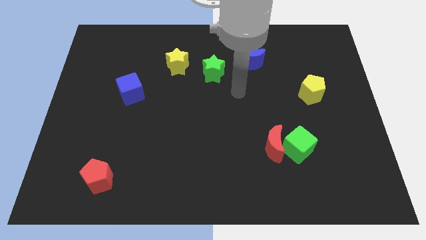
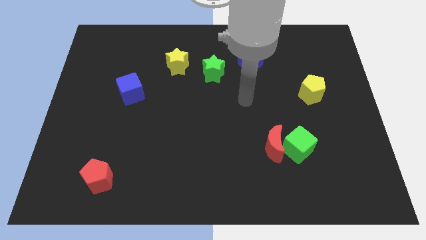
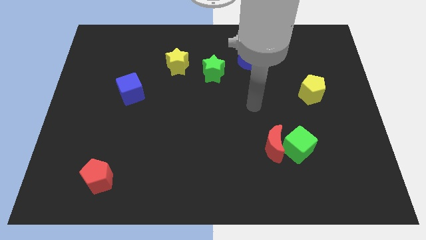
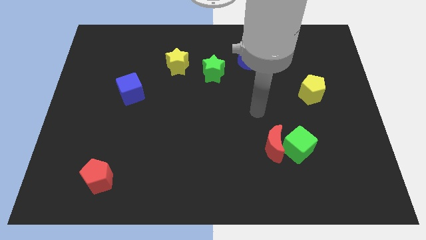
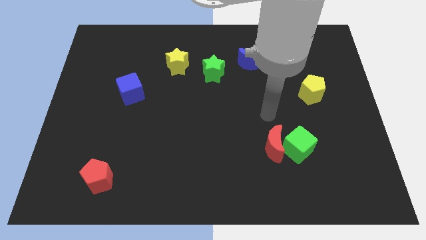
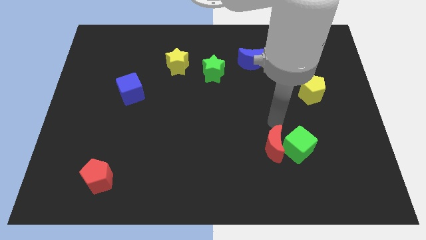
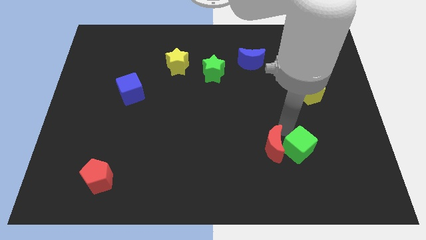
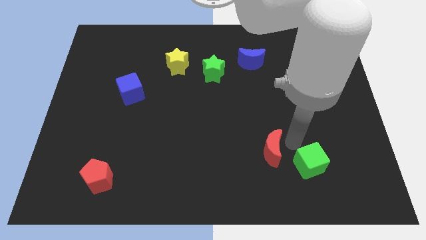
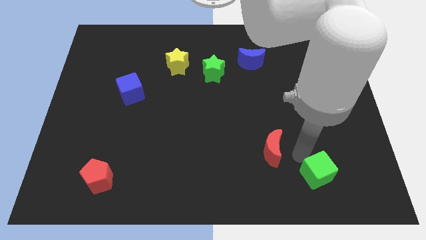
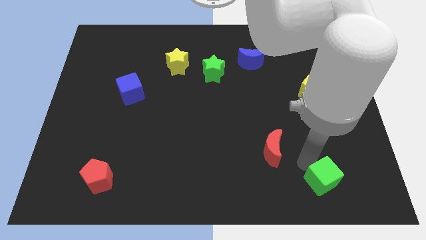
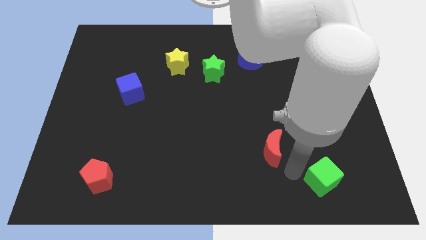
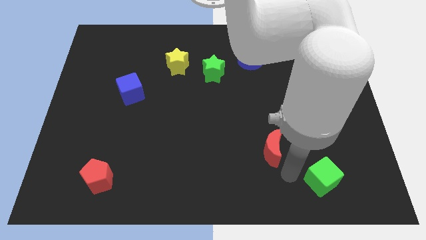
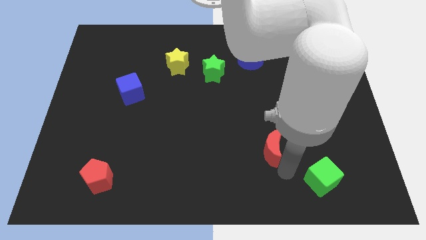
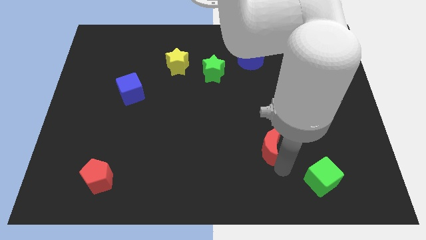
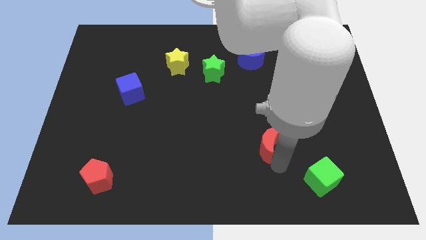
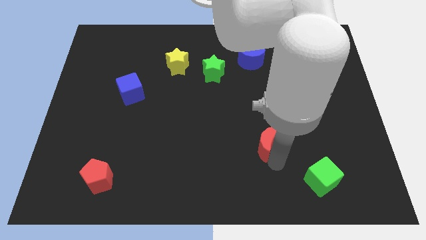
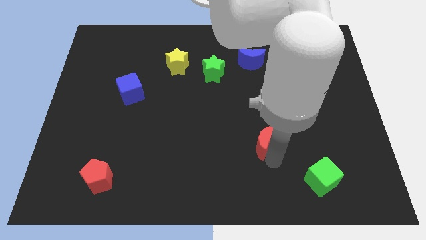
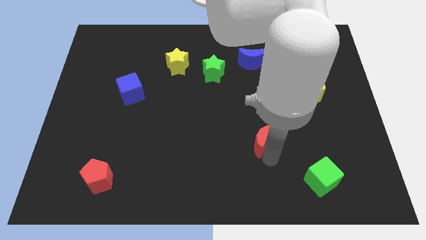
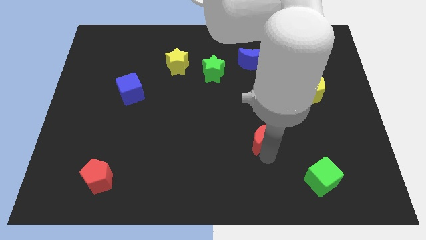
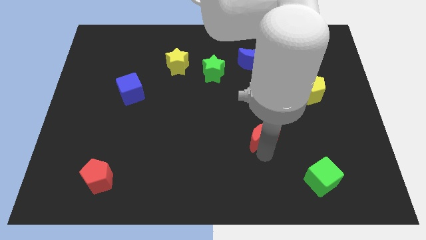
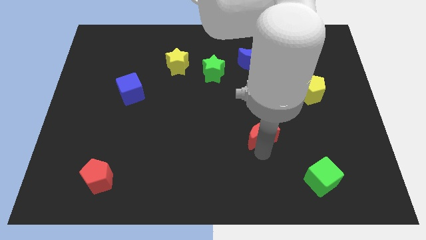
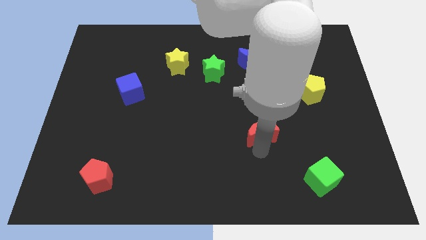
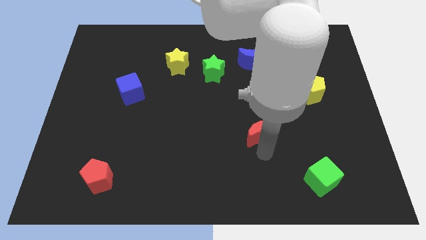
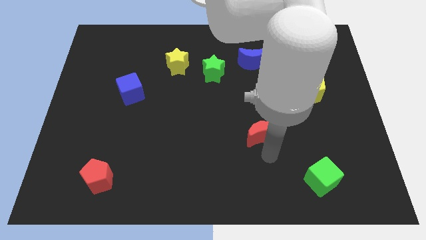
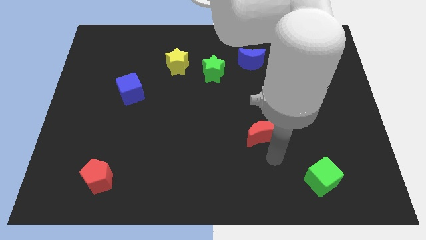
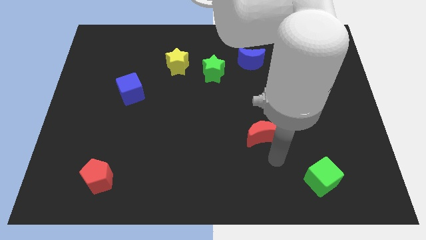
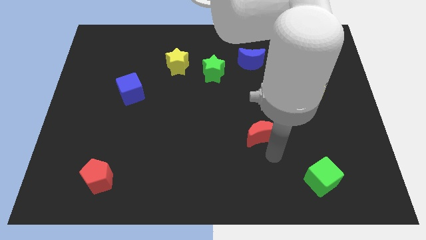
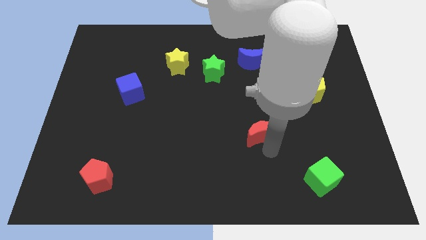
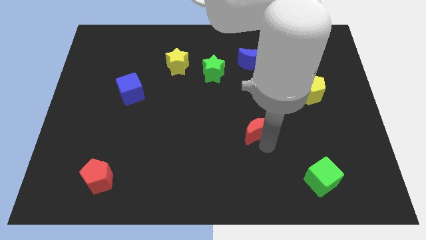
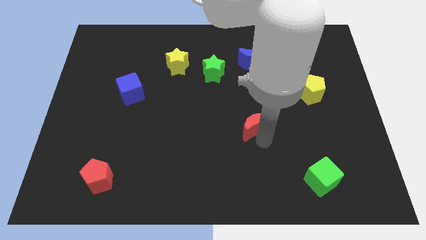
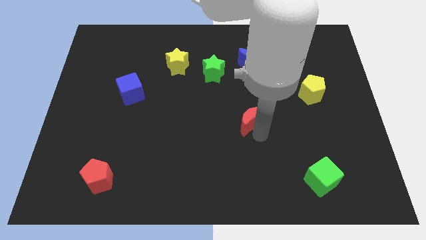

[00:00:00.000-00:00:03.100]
push the red moon somewhat diagonally up and left

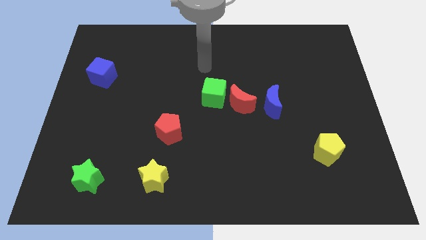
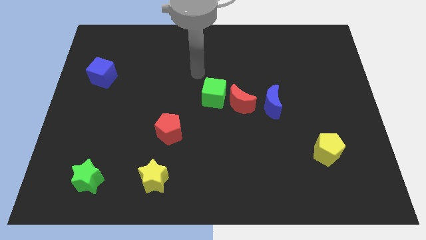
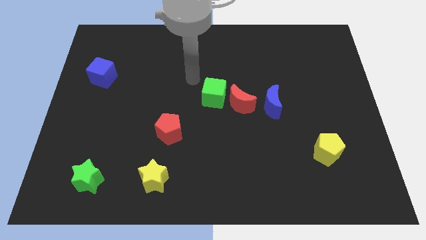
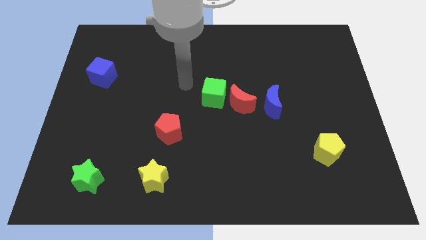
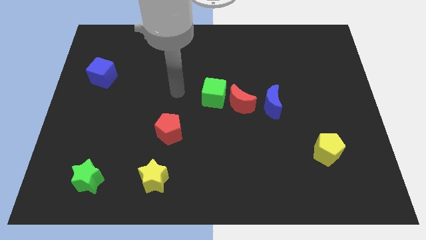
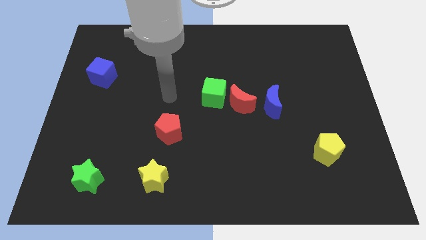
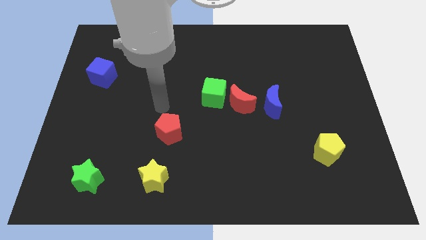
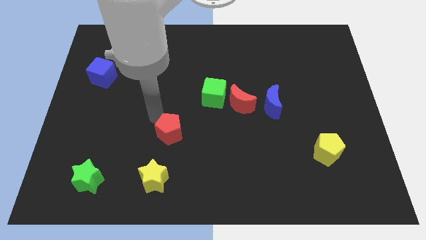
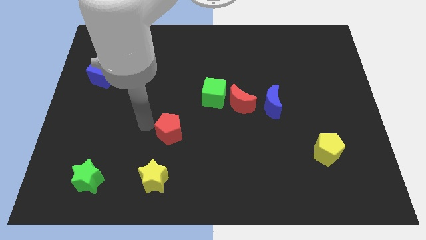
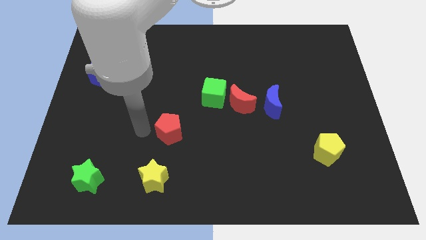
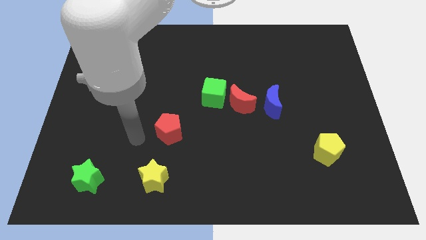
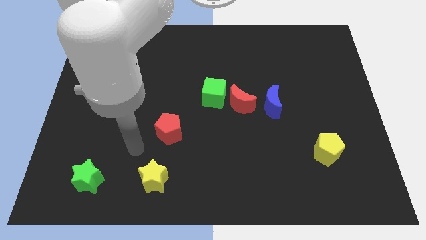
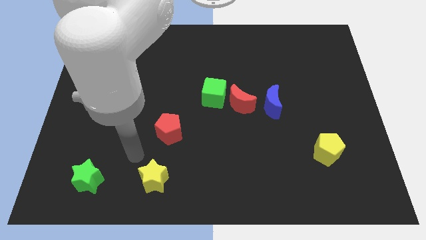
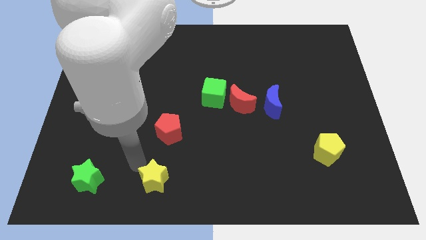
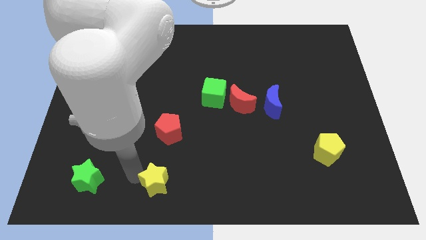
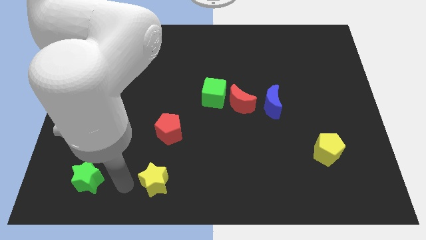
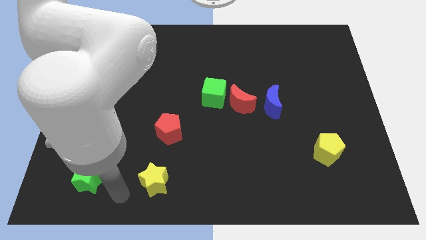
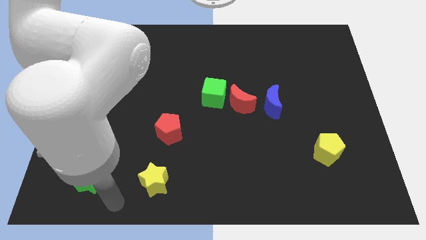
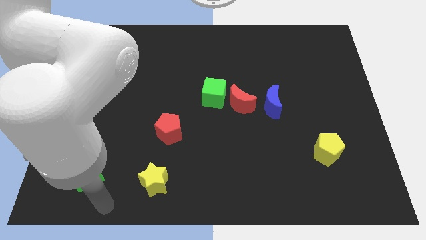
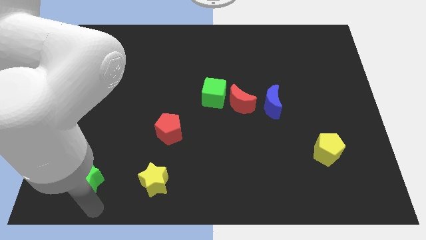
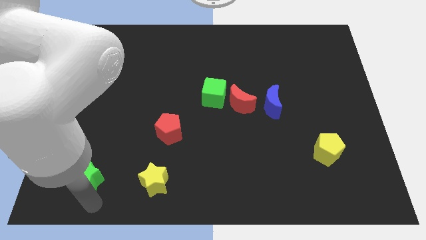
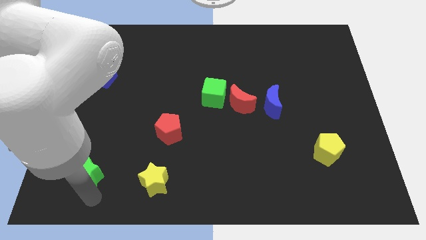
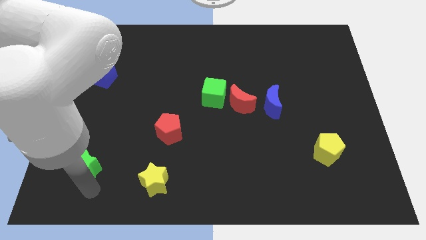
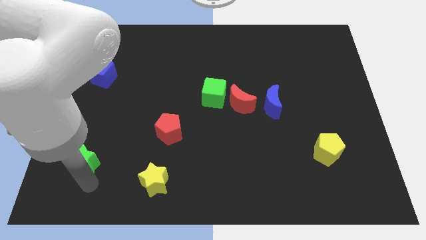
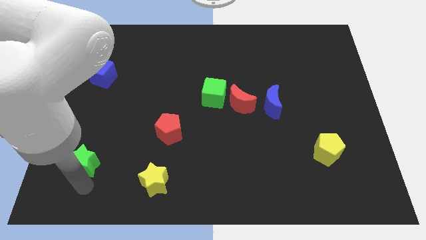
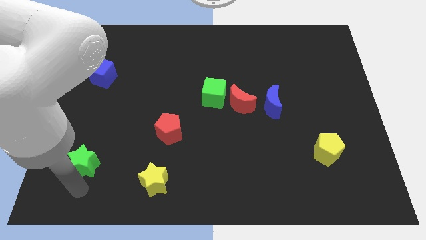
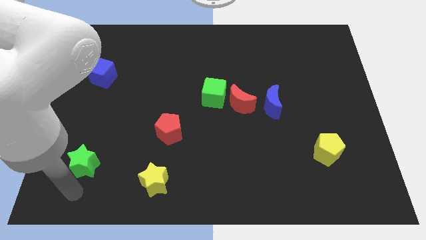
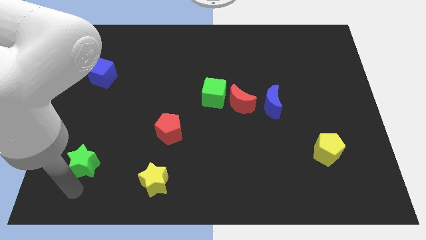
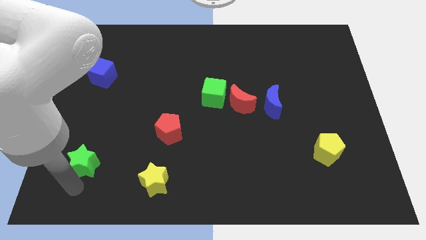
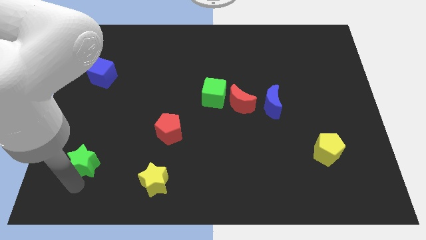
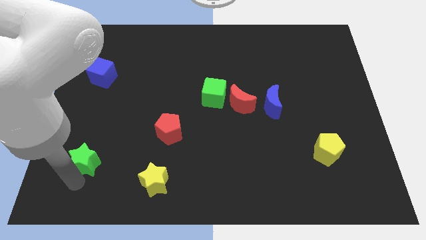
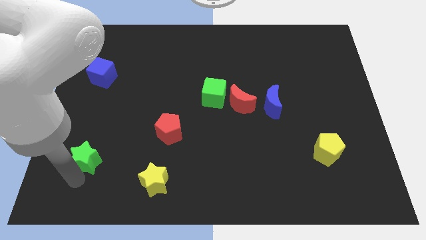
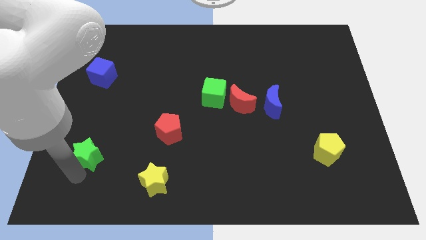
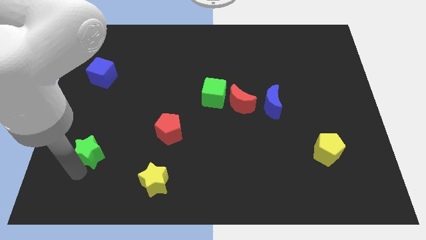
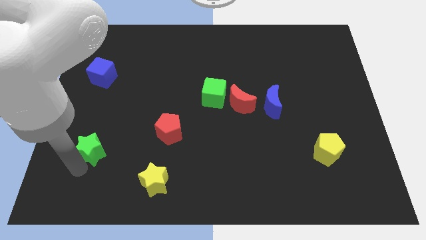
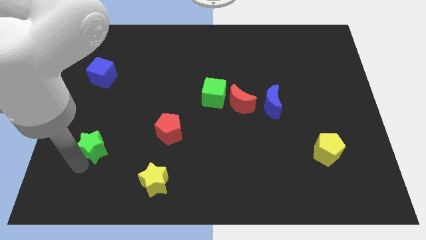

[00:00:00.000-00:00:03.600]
push the green star upwards a little bit

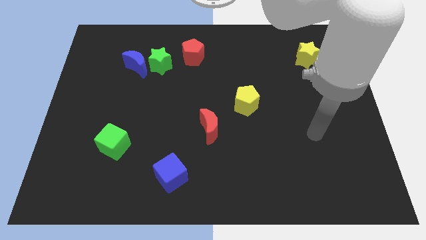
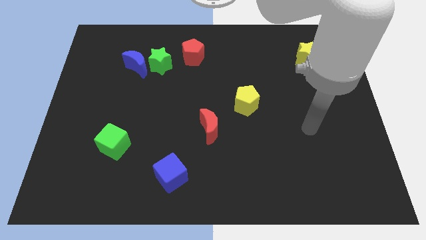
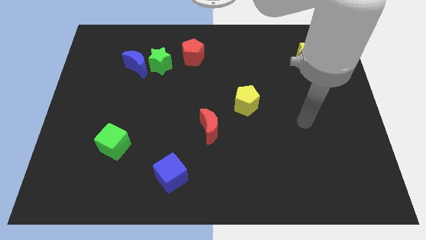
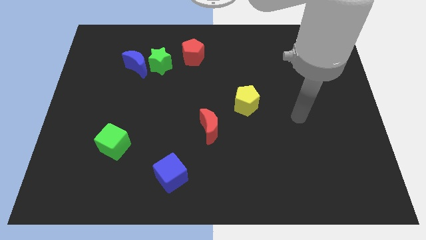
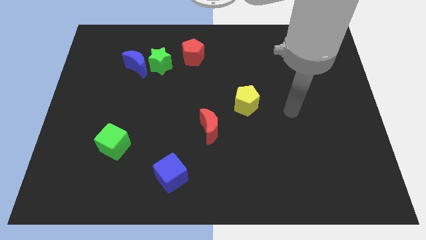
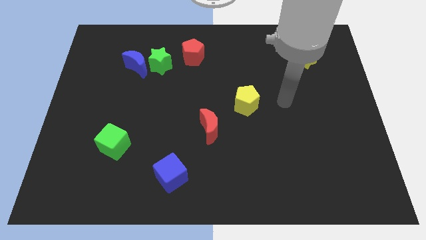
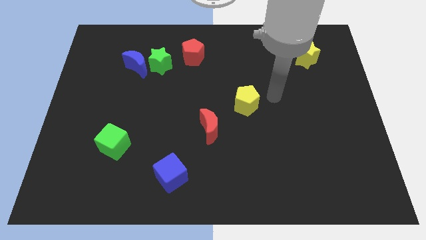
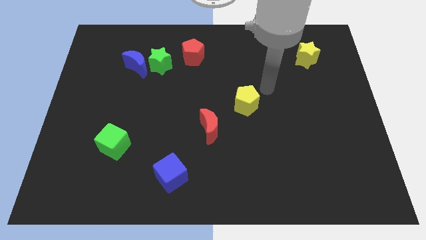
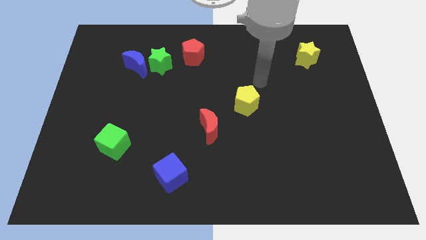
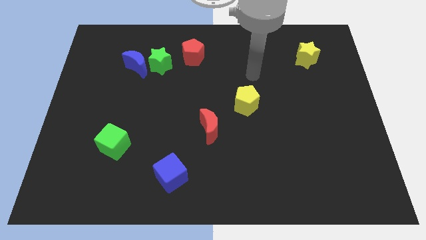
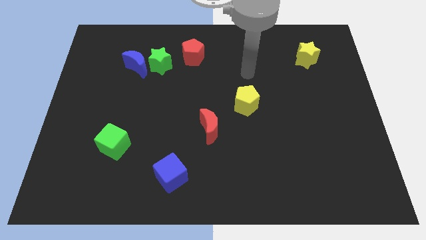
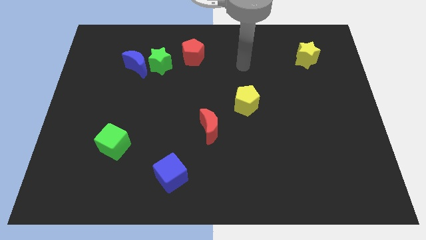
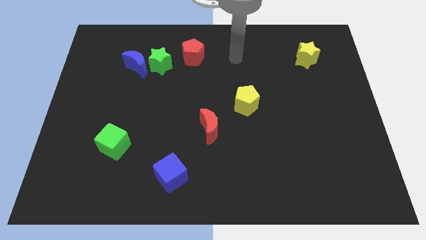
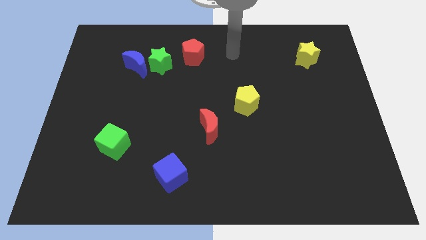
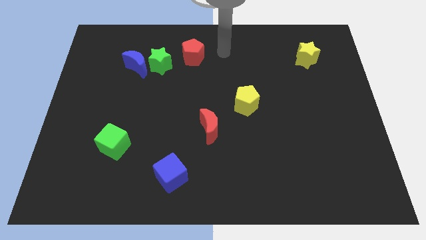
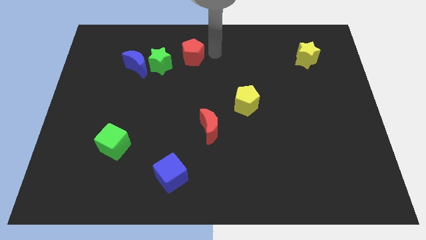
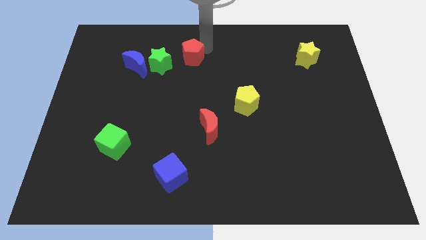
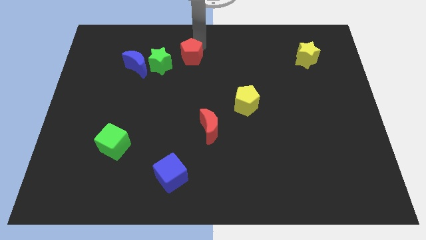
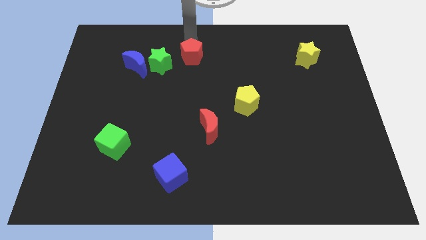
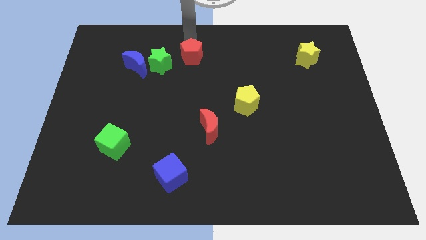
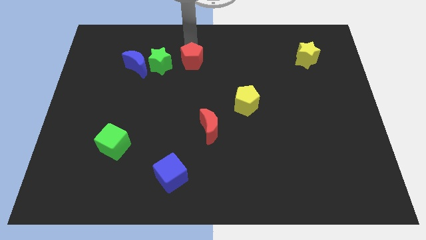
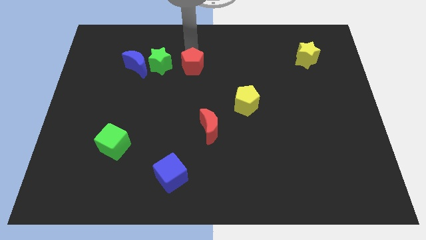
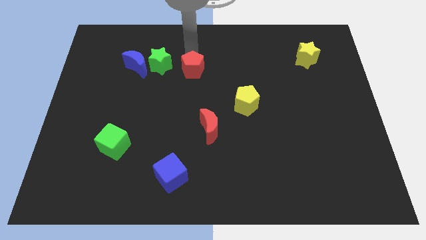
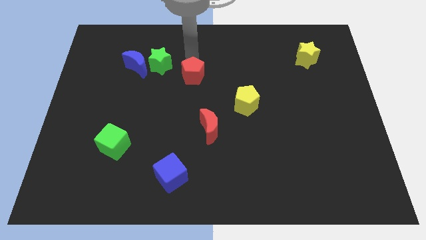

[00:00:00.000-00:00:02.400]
slightly slide the red pentagon down
